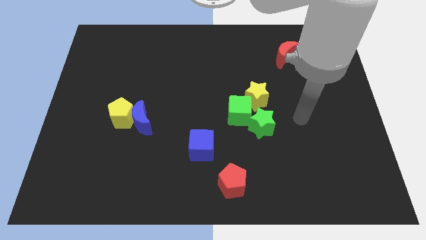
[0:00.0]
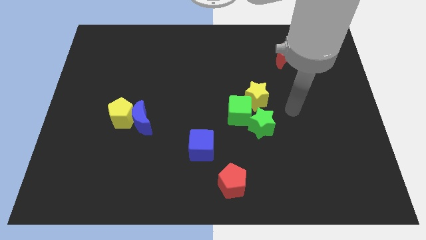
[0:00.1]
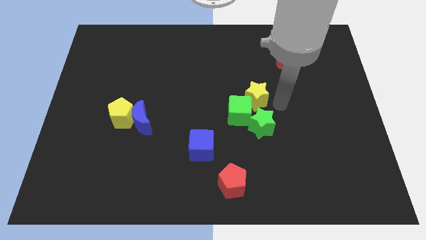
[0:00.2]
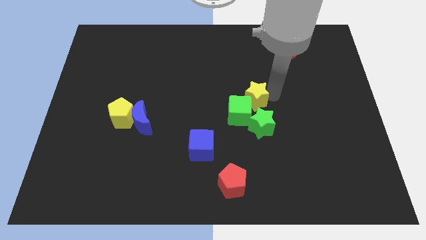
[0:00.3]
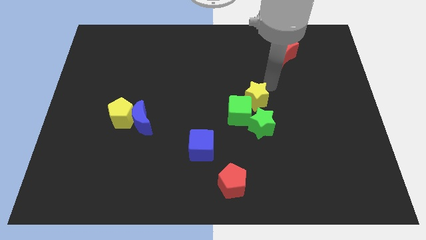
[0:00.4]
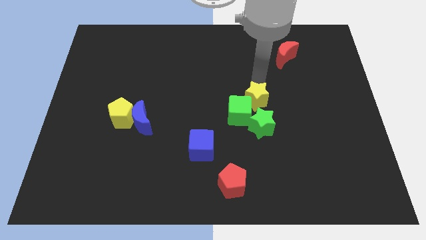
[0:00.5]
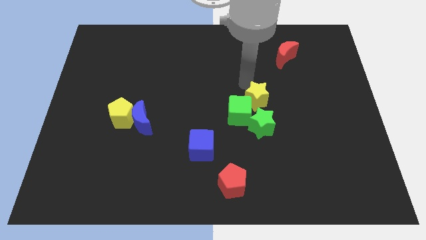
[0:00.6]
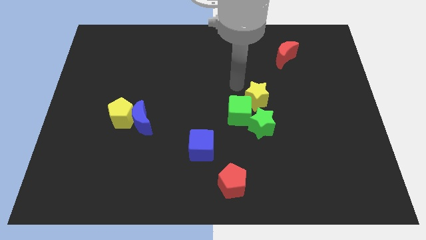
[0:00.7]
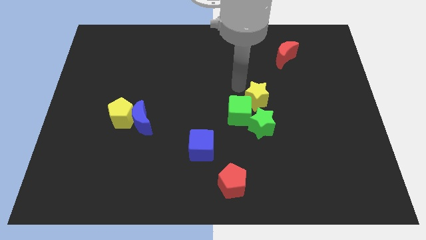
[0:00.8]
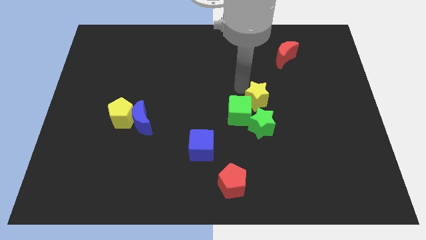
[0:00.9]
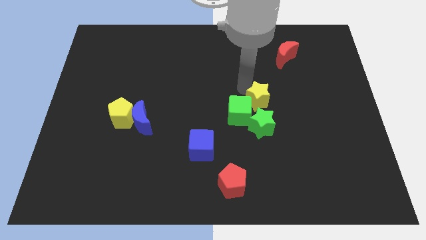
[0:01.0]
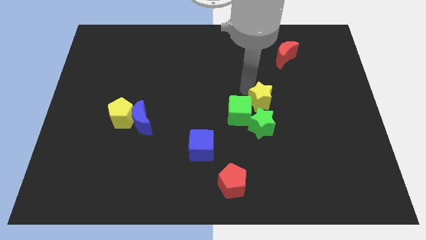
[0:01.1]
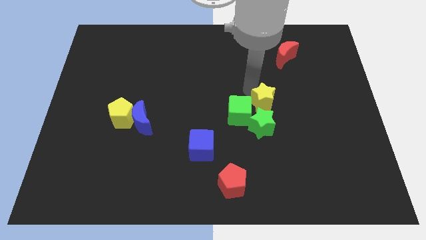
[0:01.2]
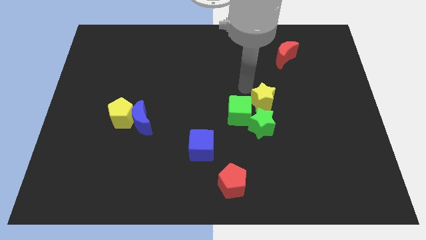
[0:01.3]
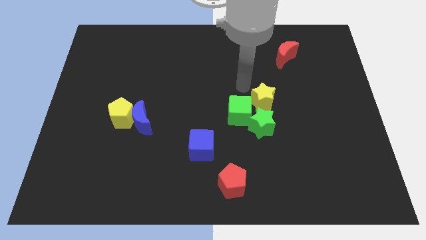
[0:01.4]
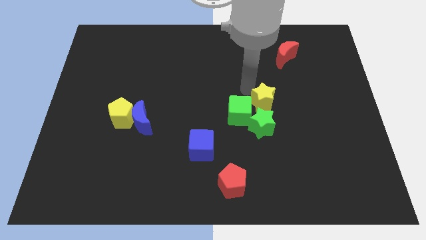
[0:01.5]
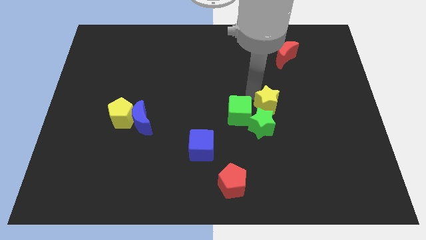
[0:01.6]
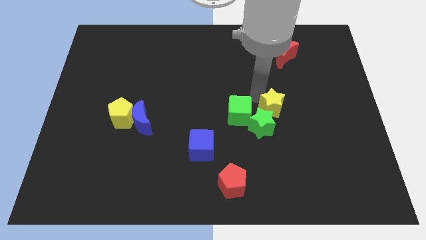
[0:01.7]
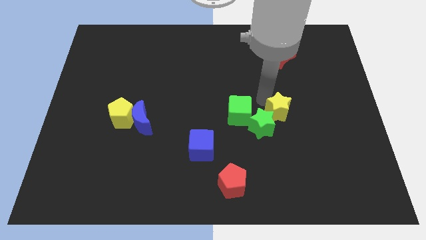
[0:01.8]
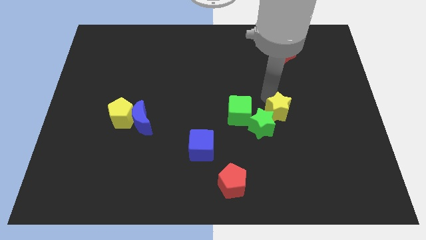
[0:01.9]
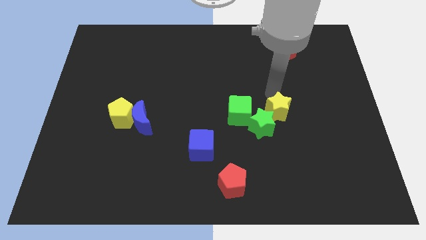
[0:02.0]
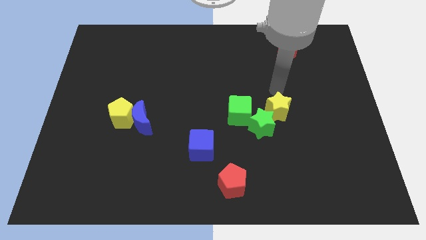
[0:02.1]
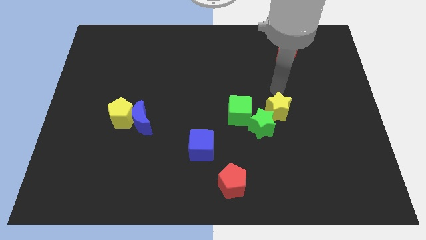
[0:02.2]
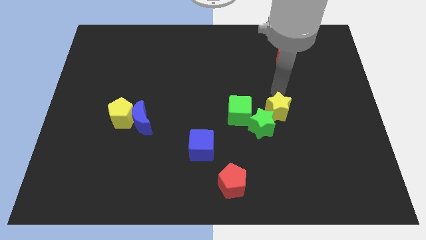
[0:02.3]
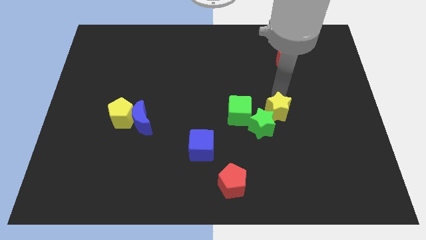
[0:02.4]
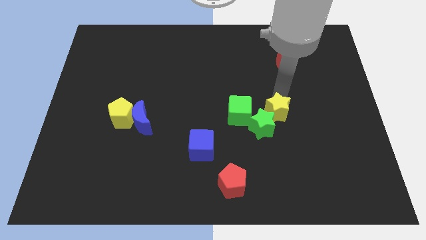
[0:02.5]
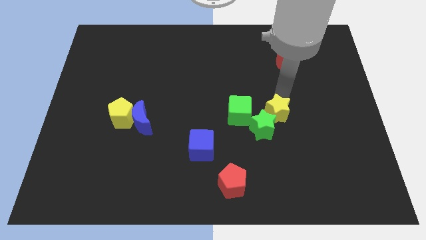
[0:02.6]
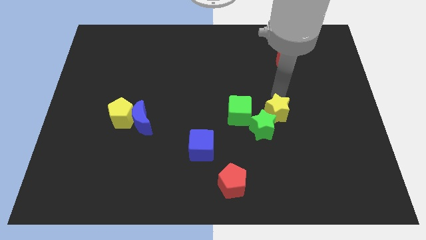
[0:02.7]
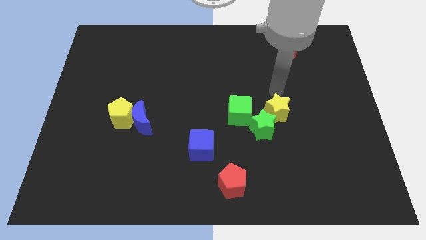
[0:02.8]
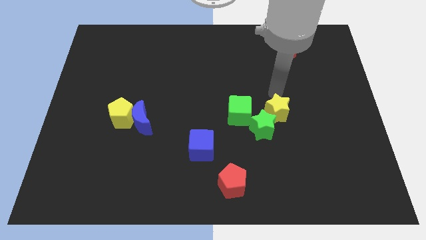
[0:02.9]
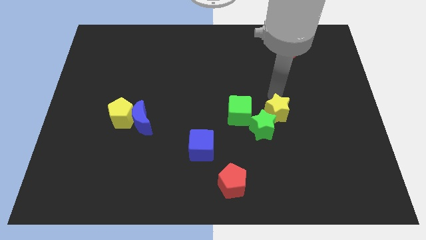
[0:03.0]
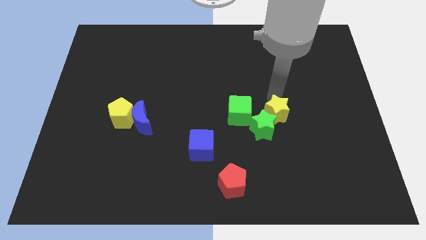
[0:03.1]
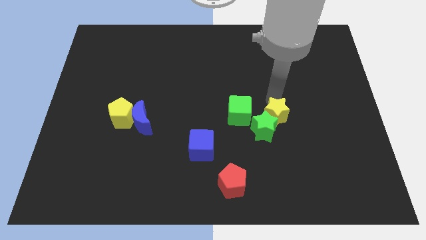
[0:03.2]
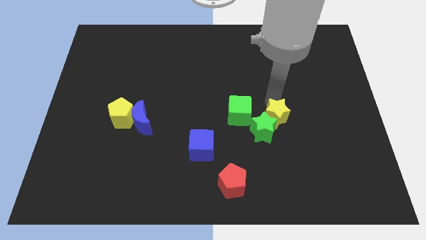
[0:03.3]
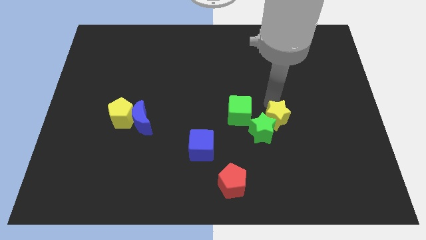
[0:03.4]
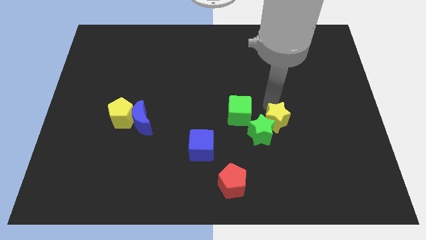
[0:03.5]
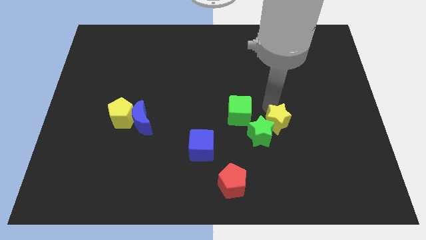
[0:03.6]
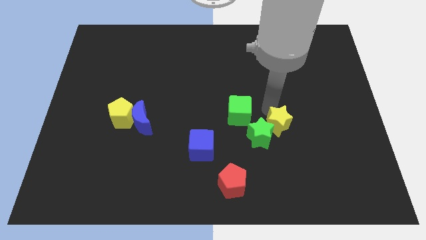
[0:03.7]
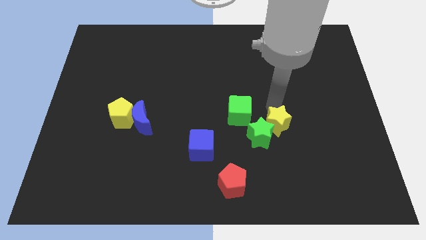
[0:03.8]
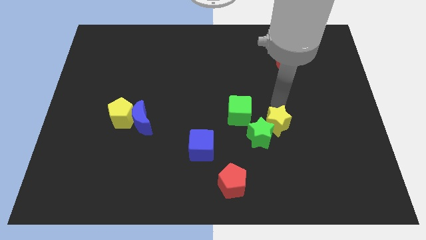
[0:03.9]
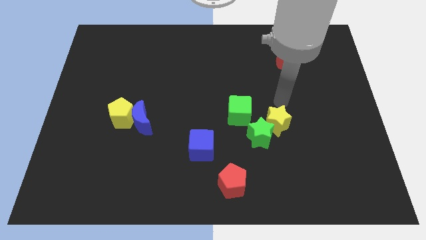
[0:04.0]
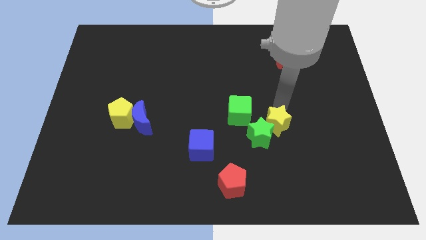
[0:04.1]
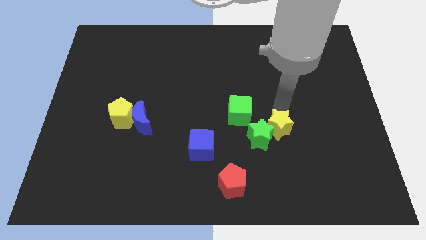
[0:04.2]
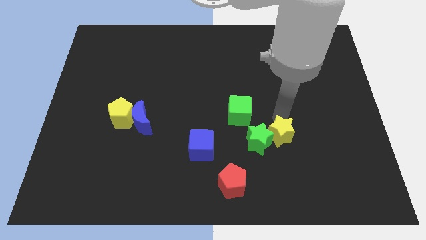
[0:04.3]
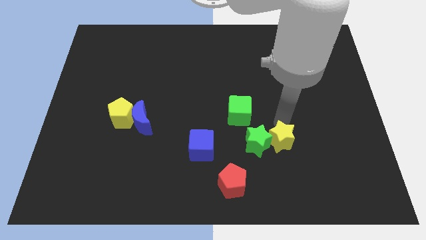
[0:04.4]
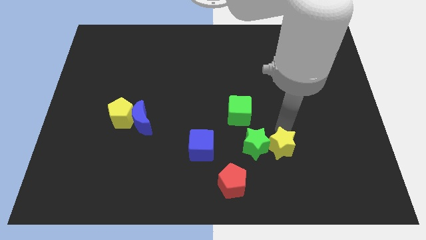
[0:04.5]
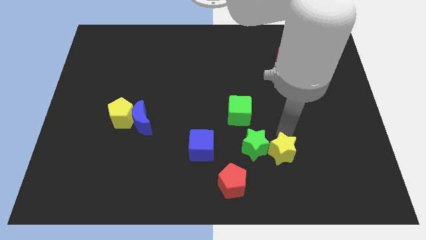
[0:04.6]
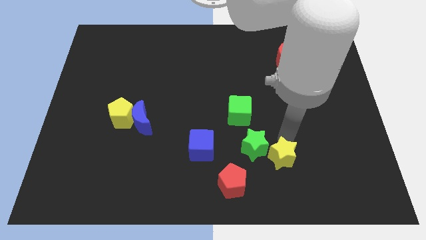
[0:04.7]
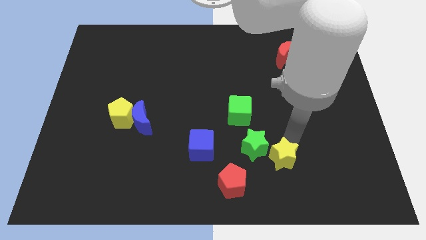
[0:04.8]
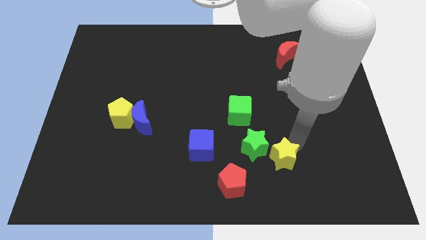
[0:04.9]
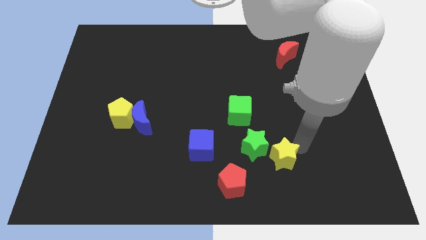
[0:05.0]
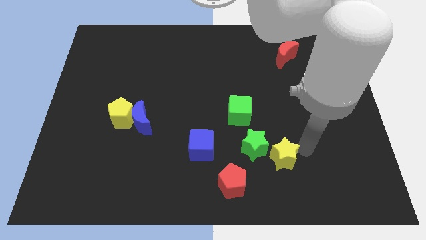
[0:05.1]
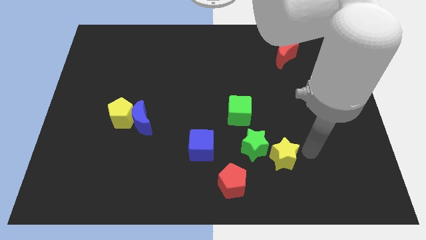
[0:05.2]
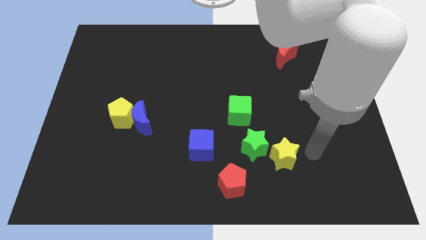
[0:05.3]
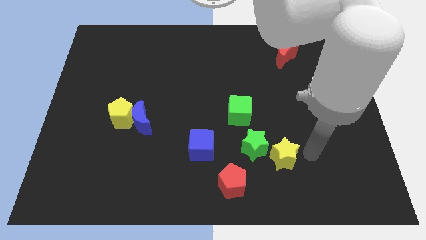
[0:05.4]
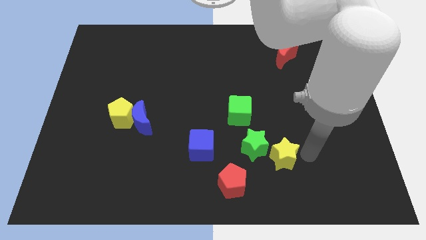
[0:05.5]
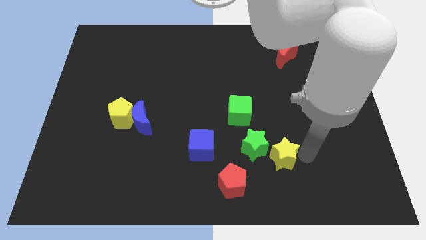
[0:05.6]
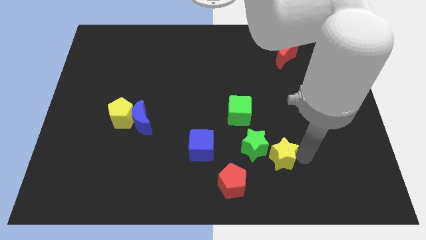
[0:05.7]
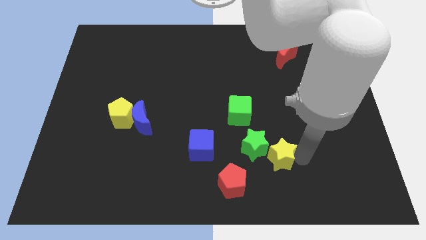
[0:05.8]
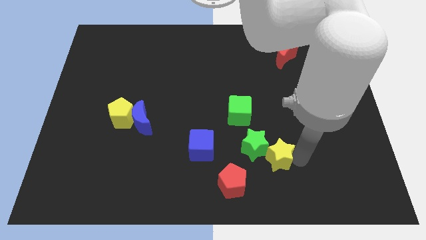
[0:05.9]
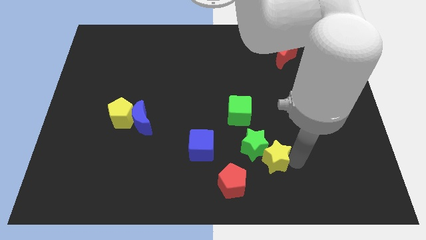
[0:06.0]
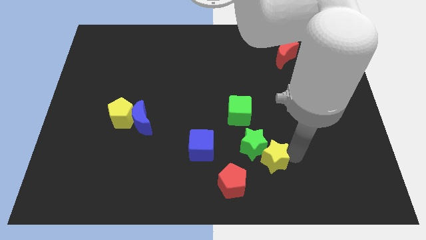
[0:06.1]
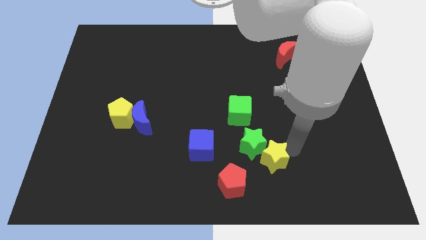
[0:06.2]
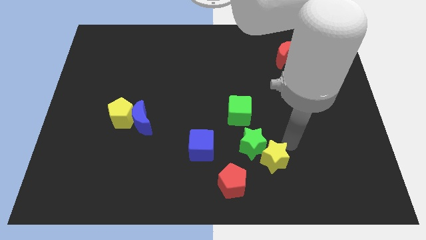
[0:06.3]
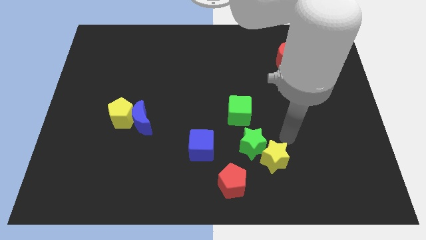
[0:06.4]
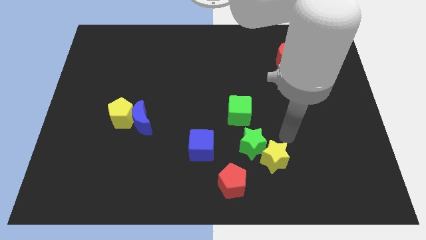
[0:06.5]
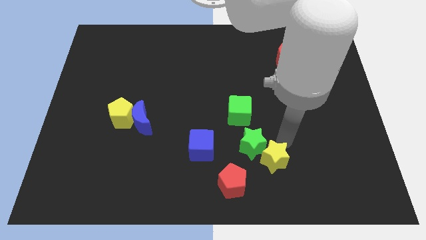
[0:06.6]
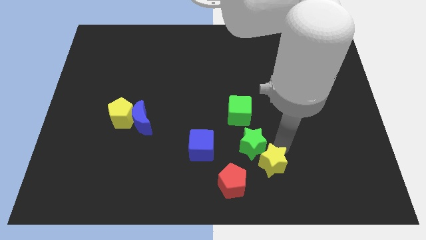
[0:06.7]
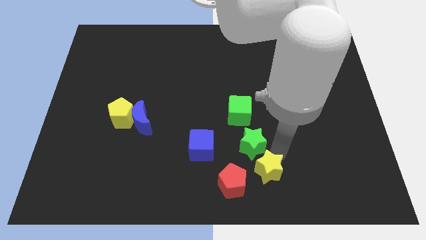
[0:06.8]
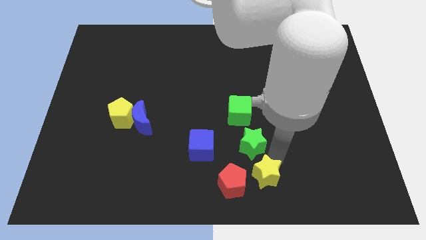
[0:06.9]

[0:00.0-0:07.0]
push the yellow star to the bottom side
